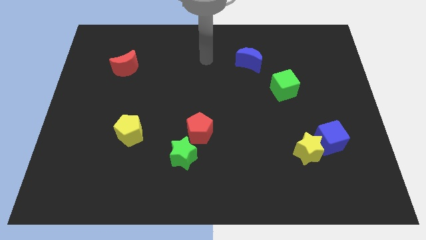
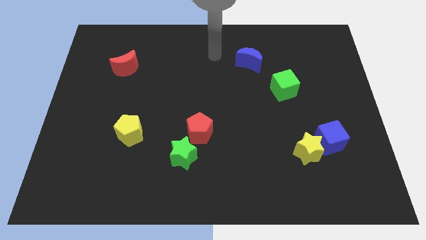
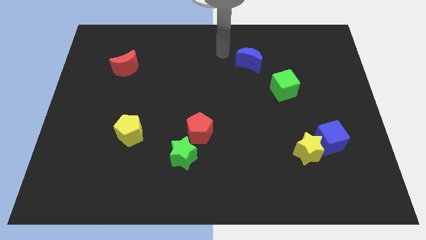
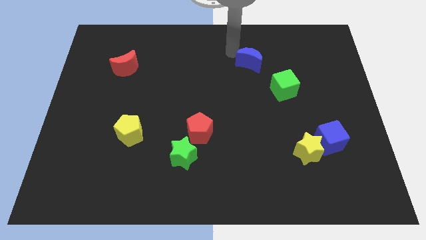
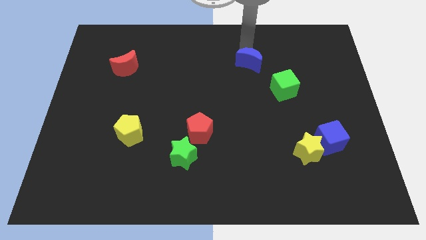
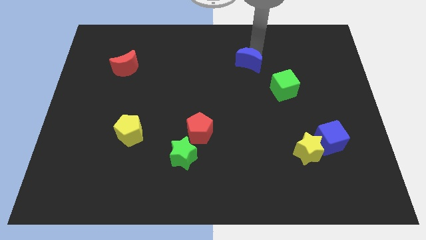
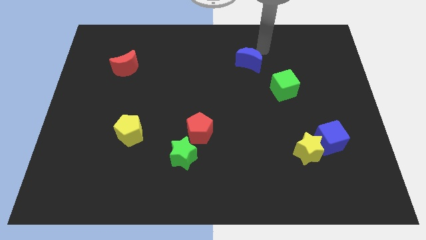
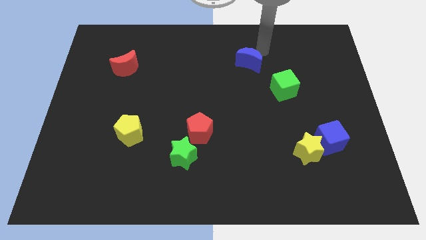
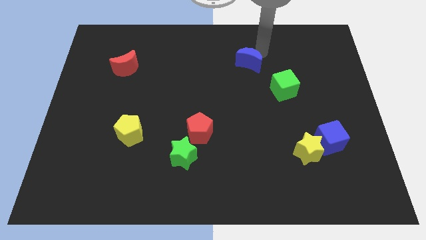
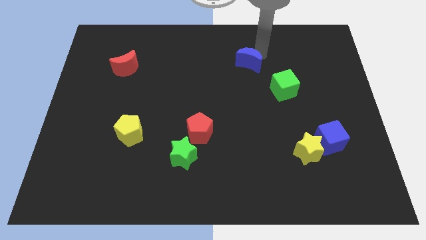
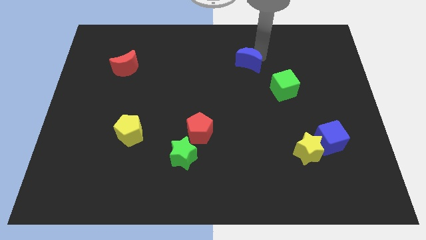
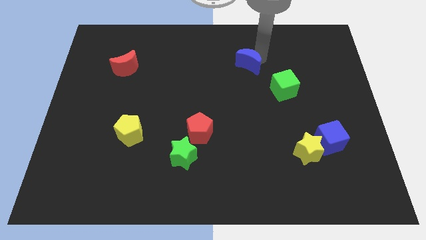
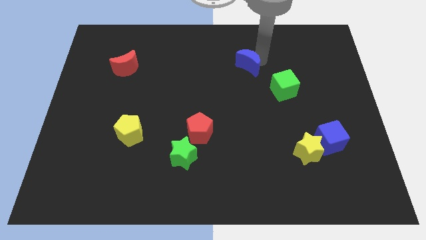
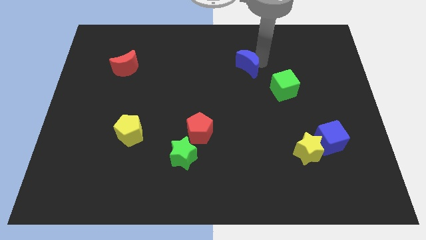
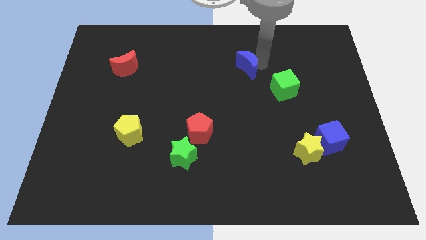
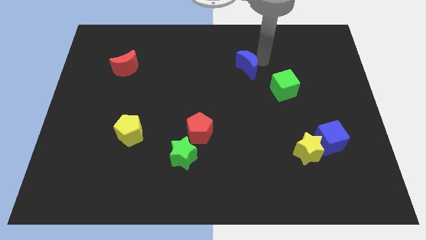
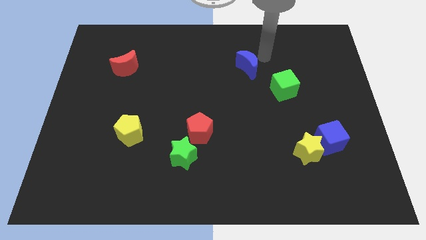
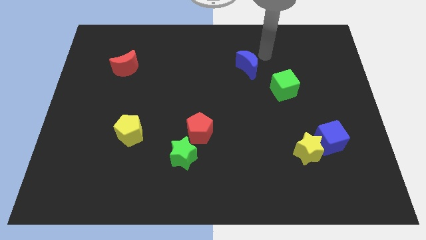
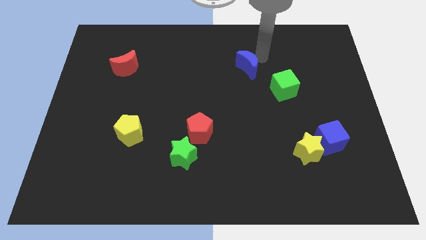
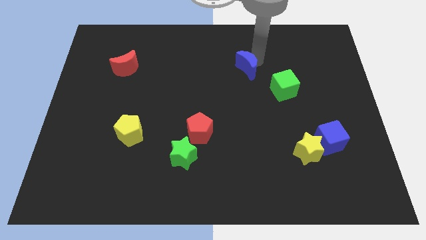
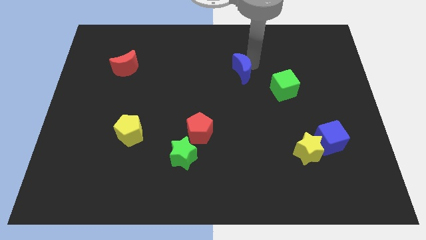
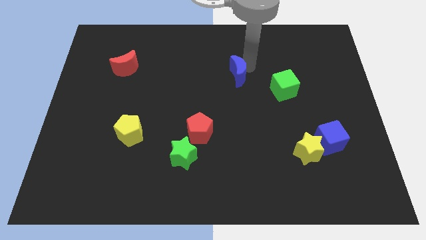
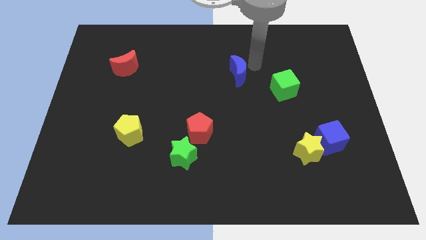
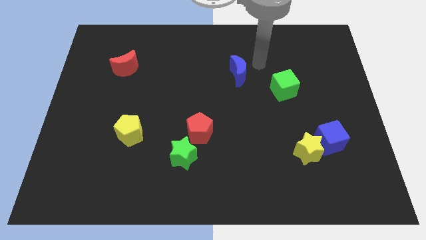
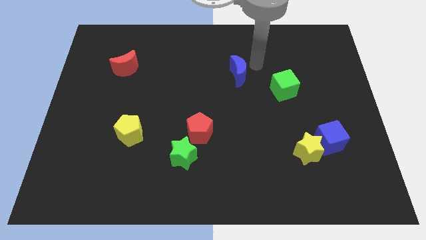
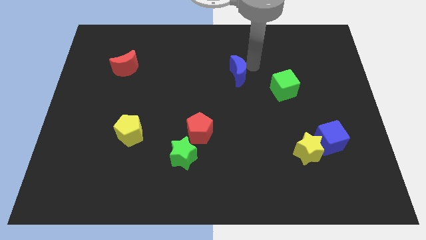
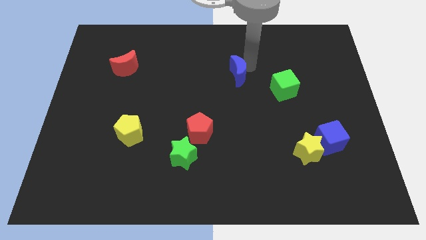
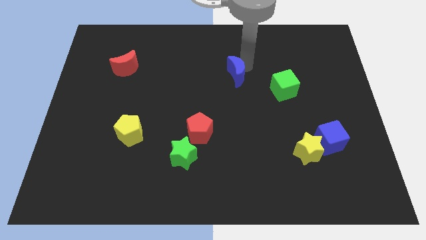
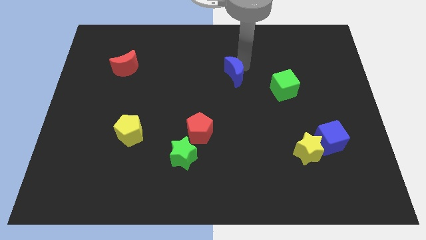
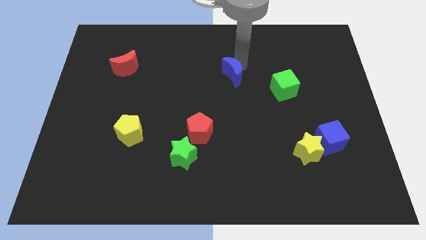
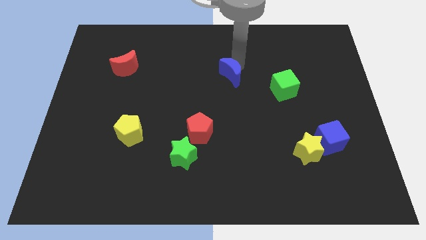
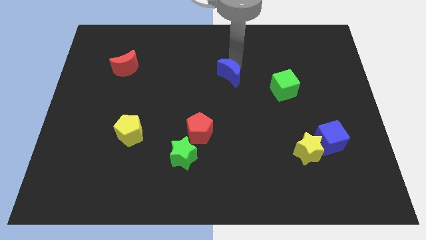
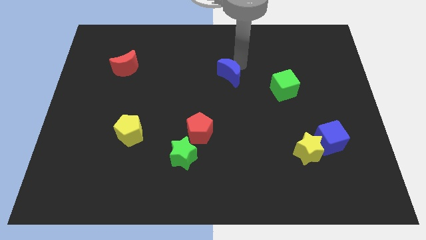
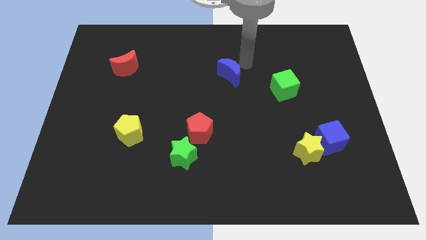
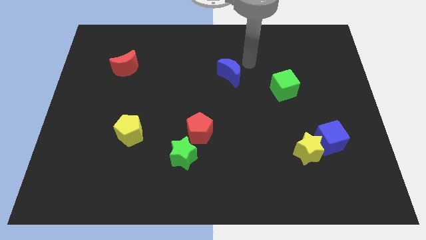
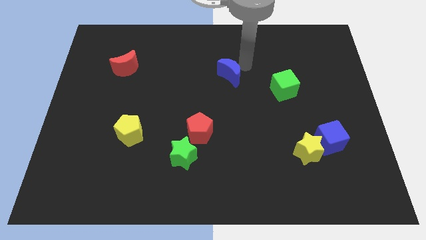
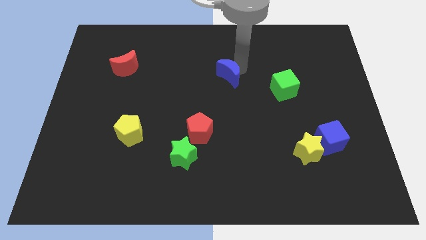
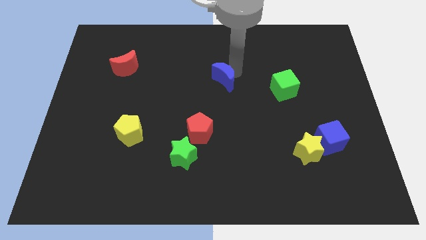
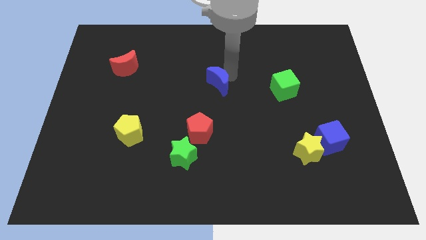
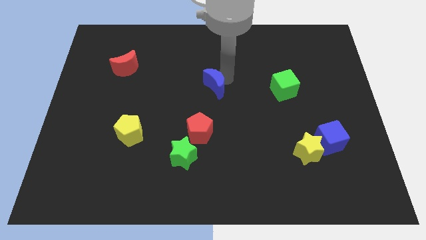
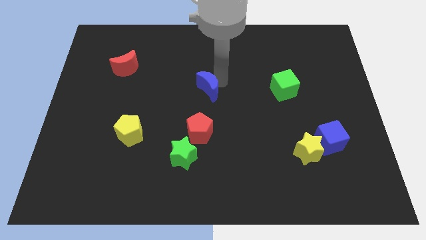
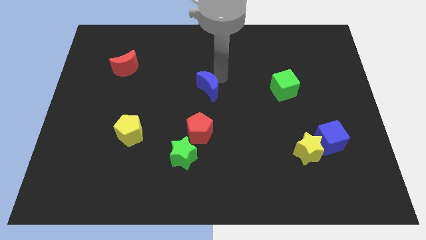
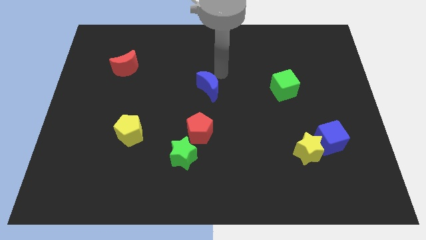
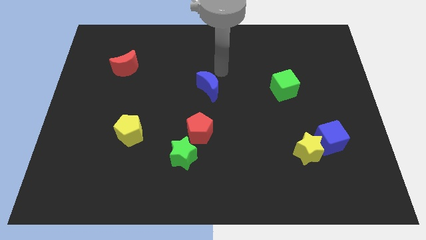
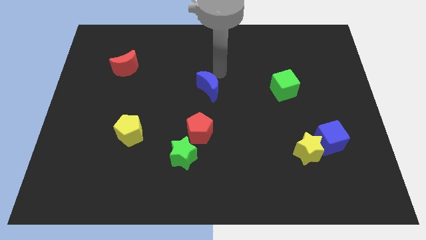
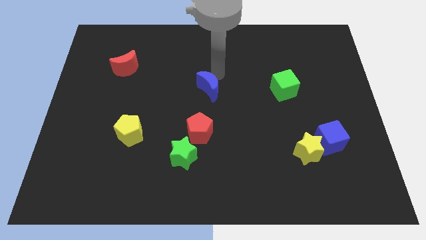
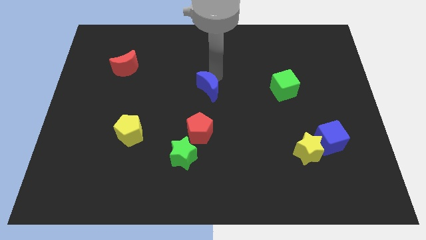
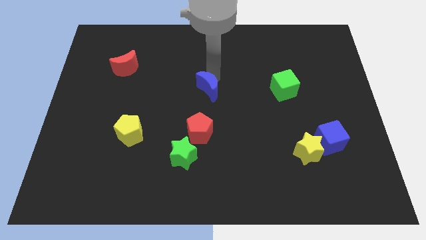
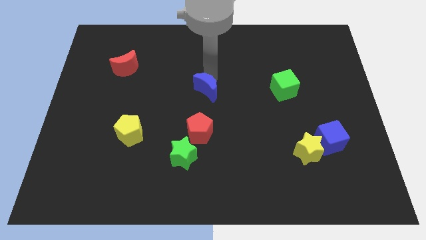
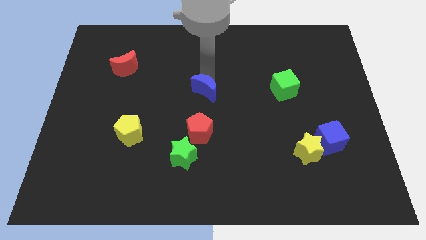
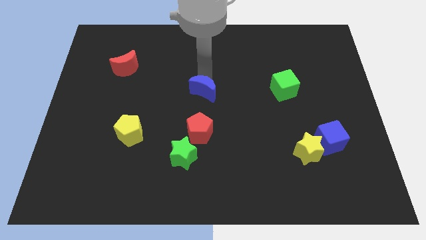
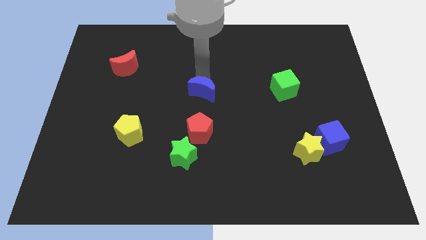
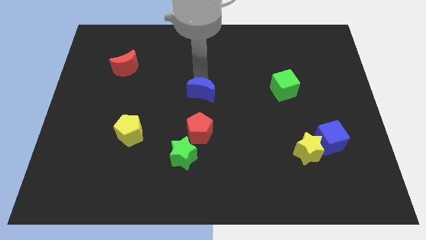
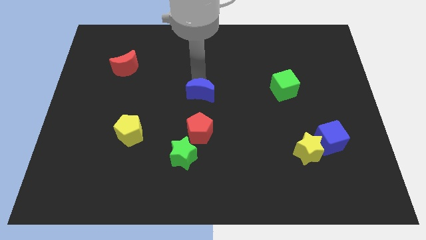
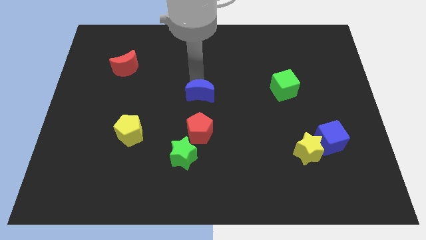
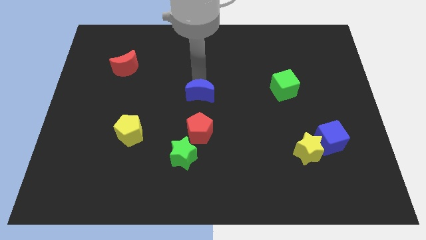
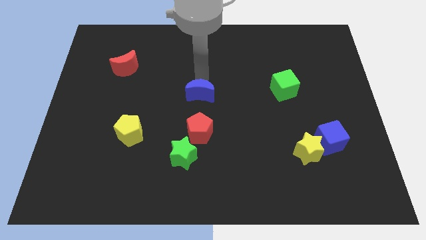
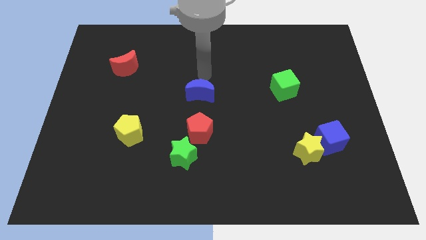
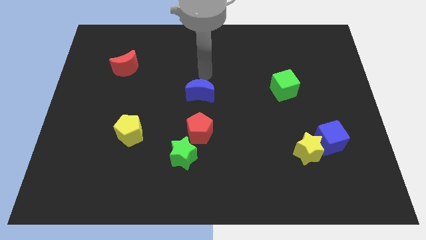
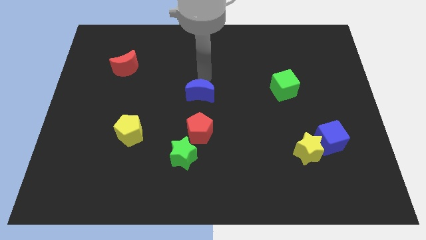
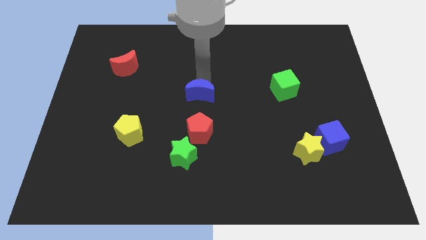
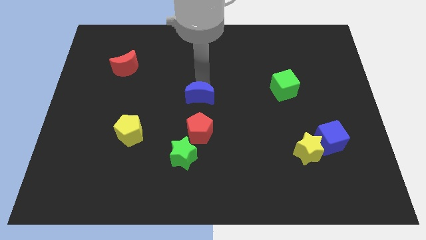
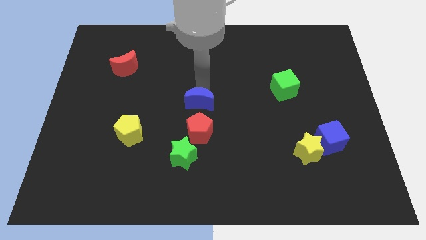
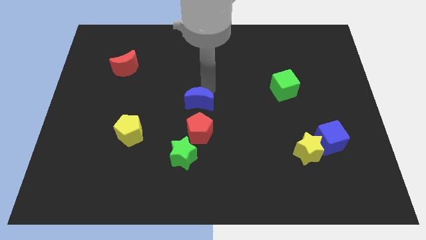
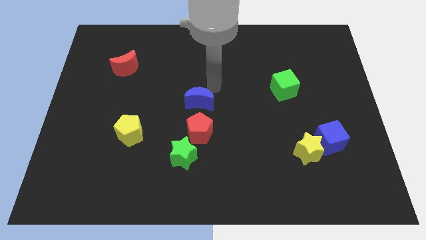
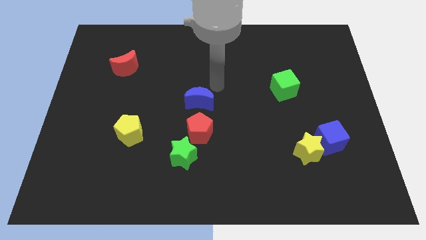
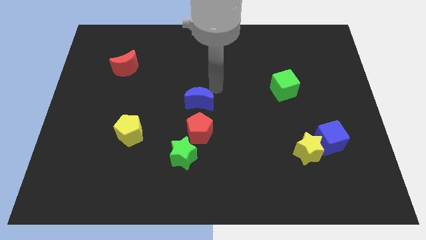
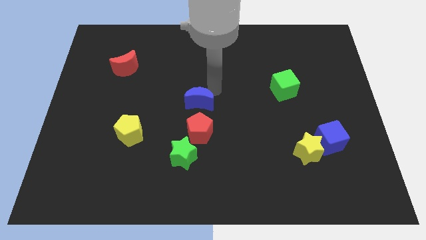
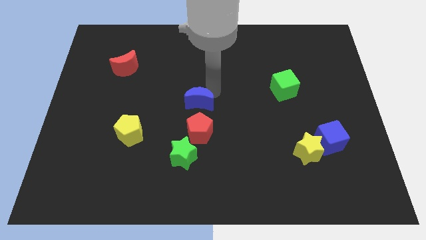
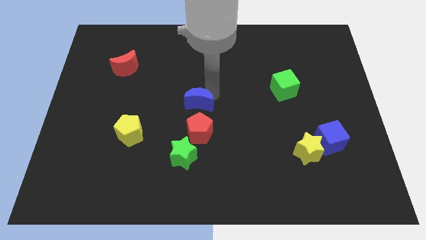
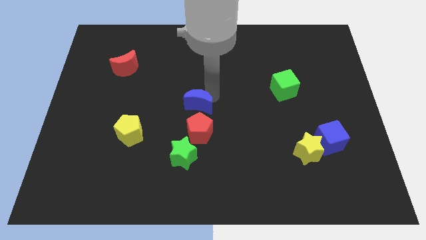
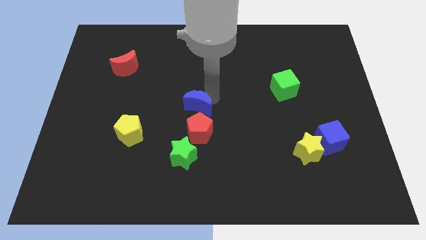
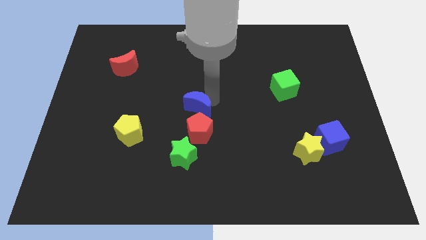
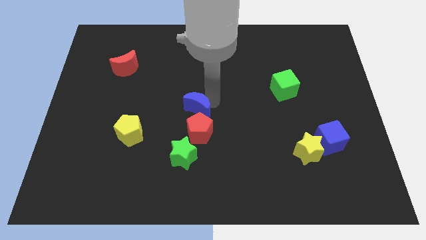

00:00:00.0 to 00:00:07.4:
slide the blue moon downwards and then to the left

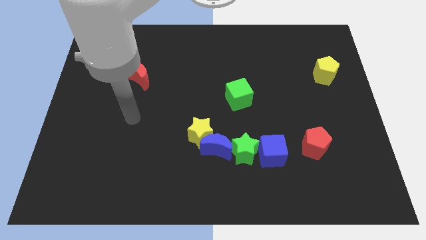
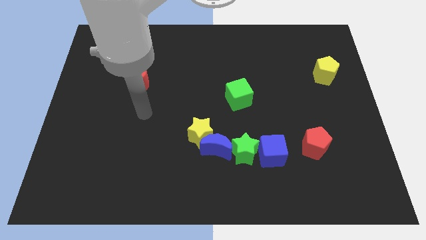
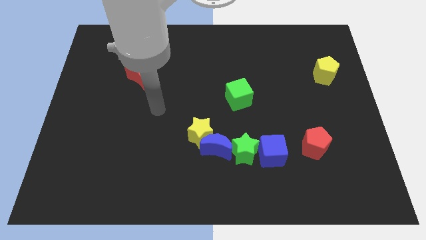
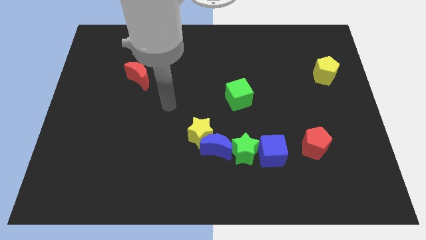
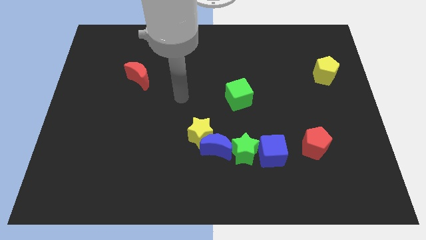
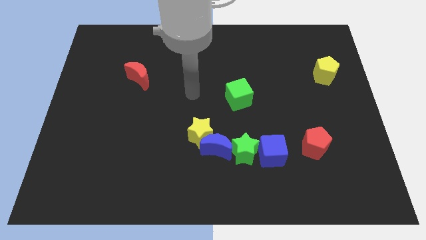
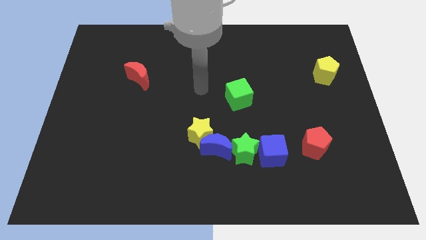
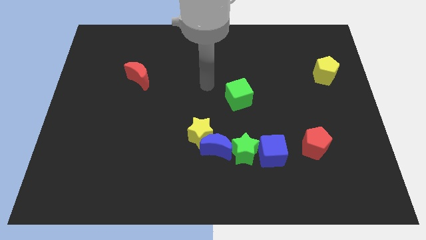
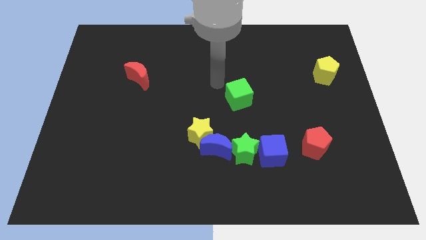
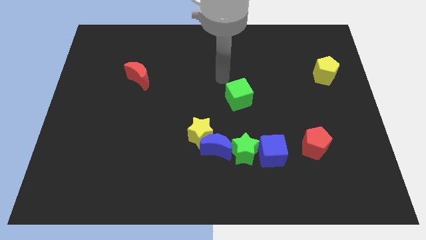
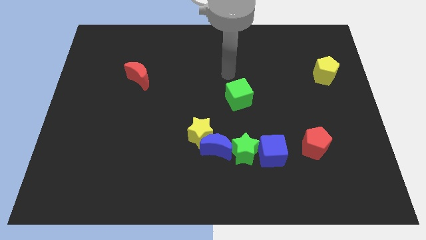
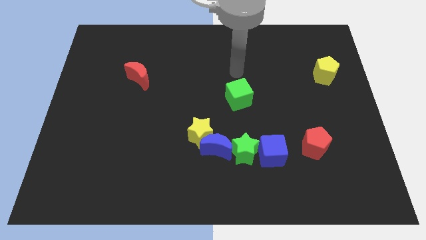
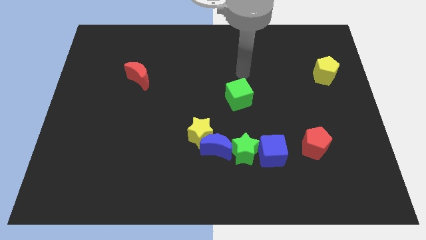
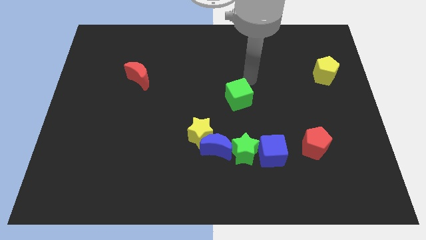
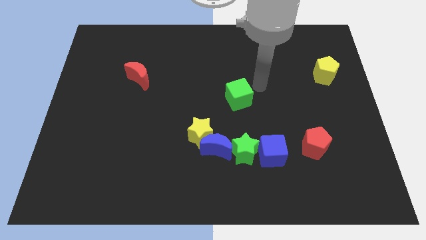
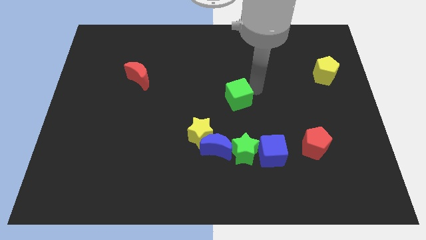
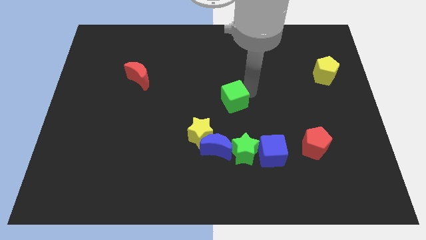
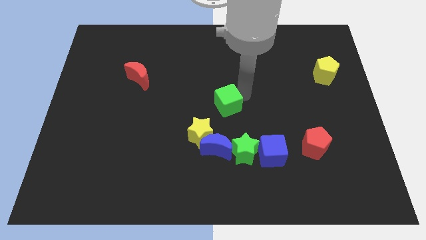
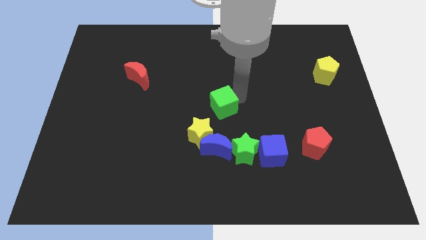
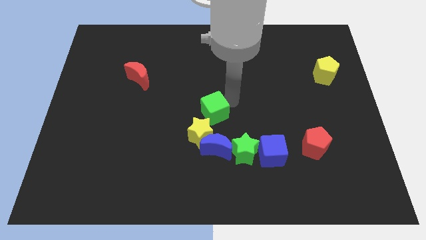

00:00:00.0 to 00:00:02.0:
move the green cube downwards and to the left diagonally a bit
